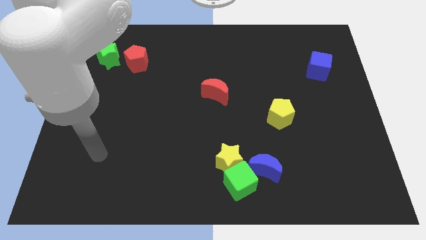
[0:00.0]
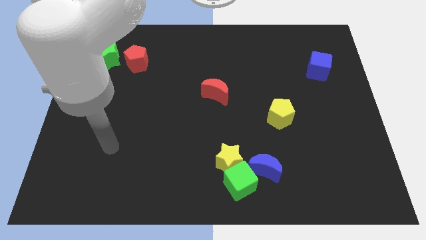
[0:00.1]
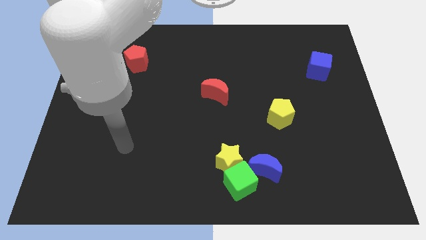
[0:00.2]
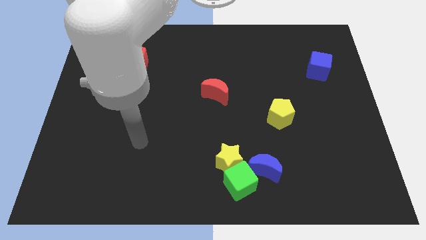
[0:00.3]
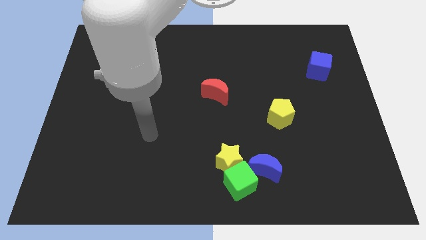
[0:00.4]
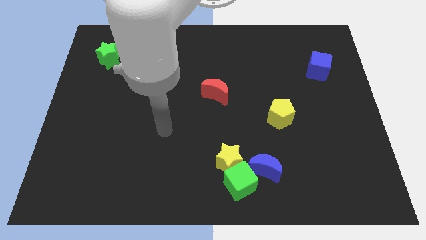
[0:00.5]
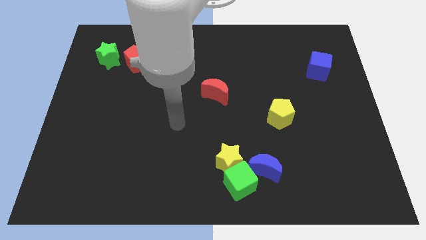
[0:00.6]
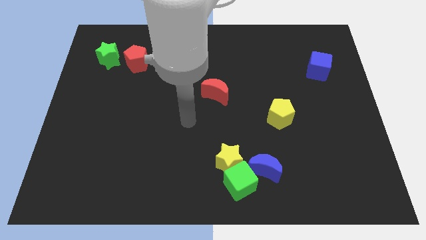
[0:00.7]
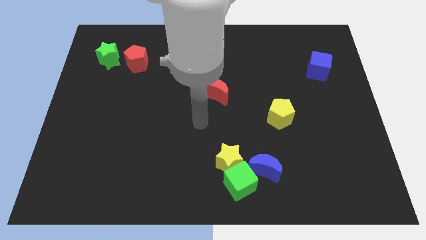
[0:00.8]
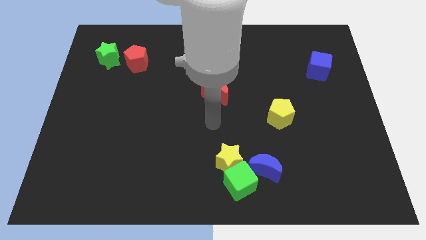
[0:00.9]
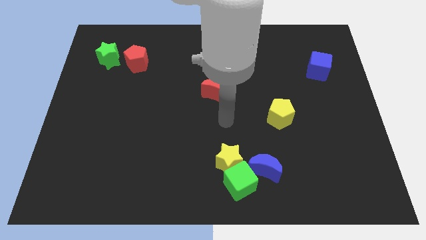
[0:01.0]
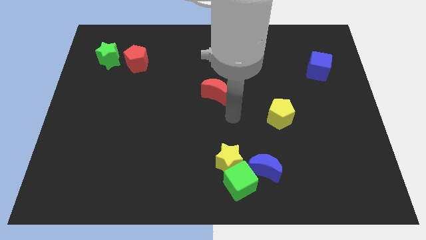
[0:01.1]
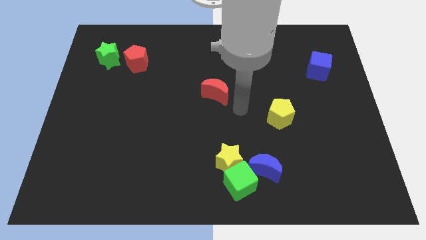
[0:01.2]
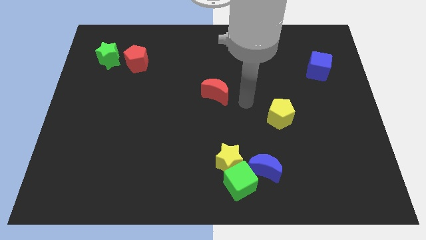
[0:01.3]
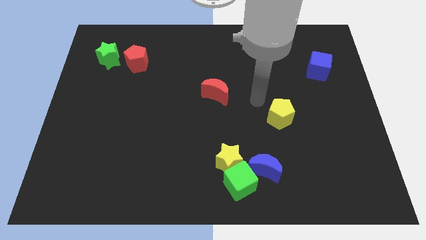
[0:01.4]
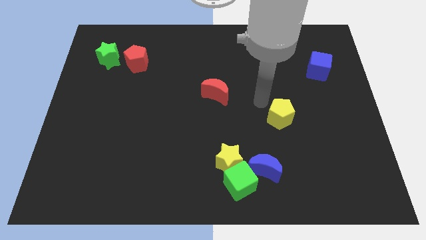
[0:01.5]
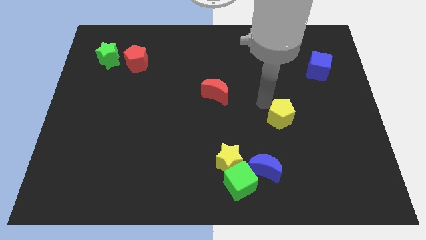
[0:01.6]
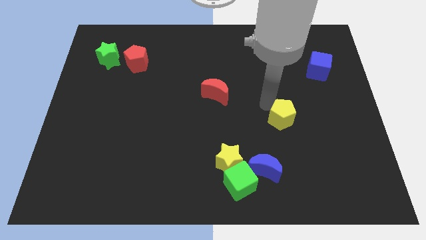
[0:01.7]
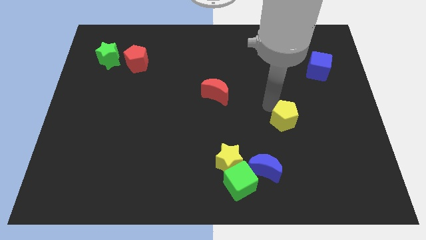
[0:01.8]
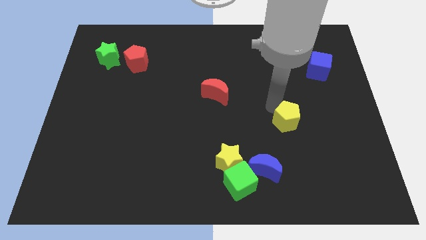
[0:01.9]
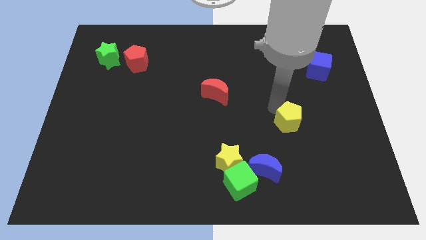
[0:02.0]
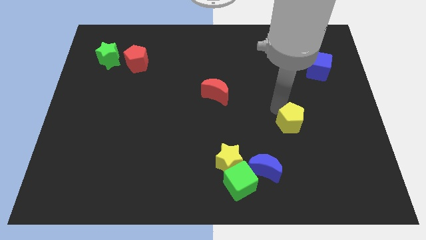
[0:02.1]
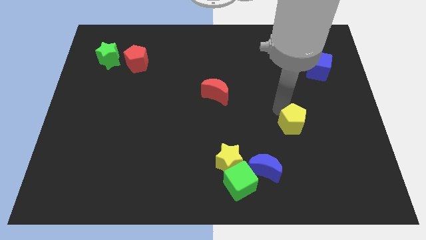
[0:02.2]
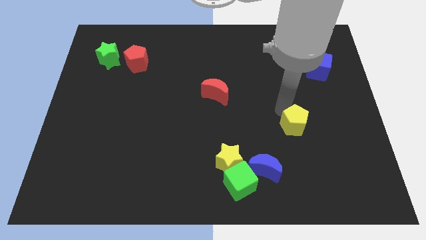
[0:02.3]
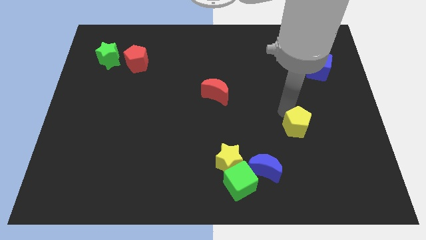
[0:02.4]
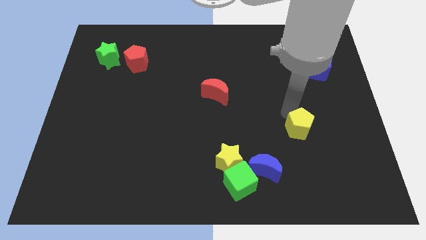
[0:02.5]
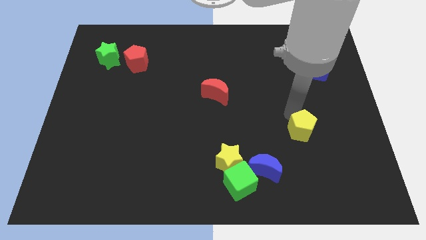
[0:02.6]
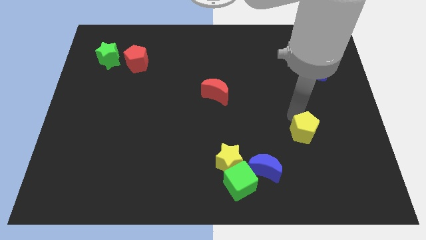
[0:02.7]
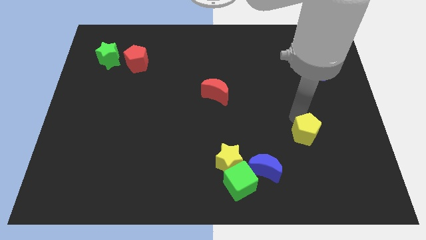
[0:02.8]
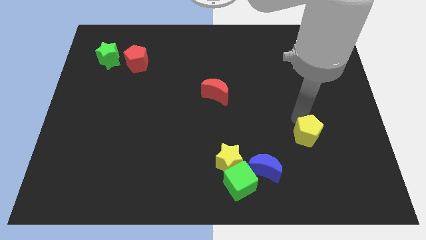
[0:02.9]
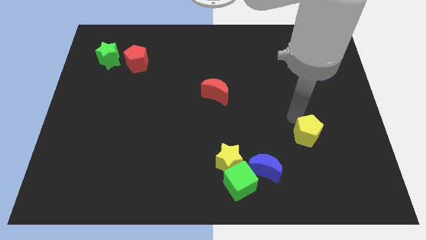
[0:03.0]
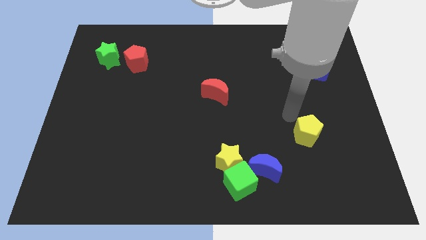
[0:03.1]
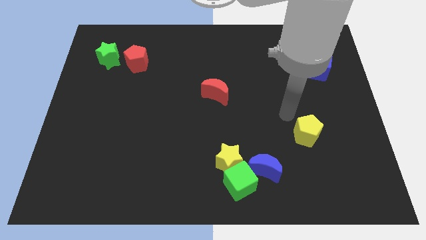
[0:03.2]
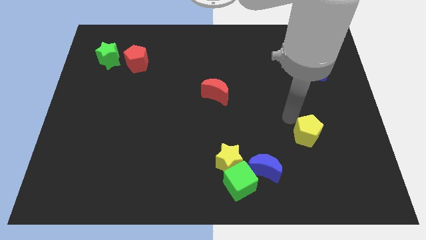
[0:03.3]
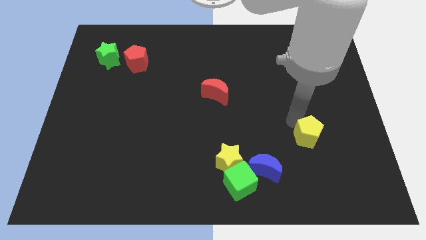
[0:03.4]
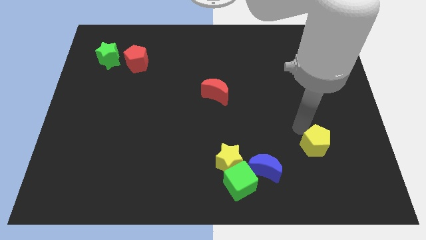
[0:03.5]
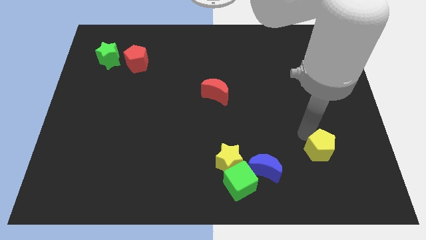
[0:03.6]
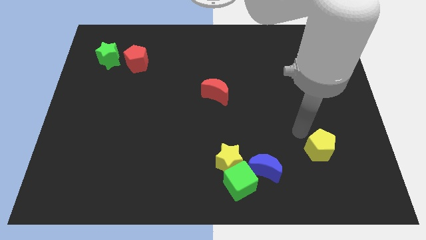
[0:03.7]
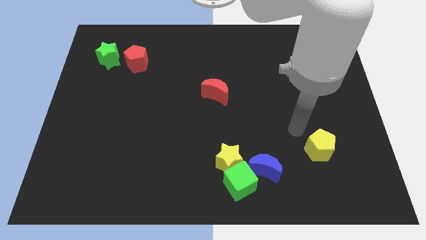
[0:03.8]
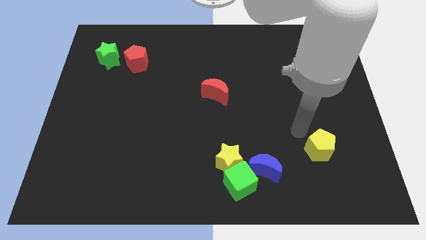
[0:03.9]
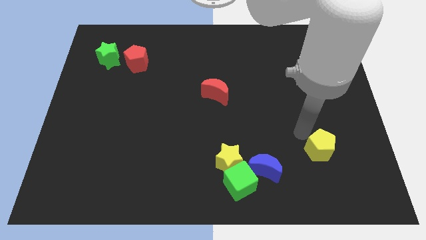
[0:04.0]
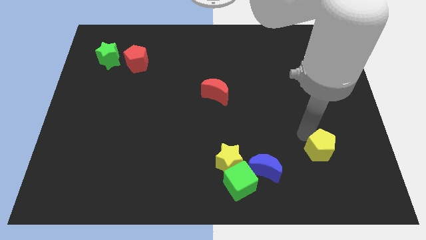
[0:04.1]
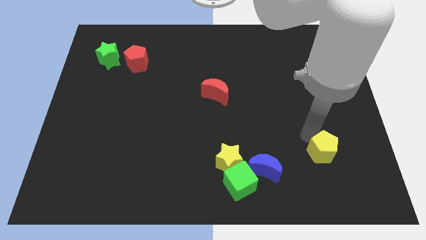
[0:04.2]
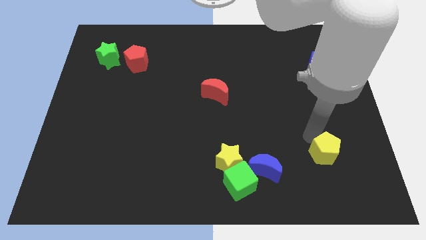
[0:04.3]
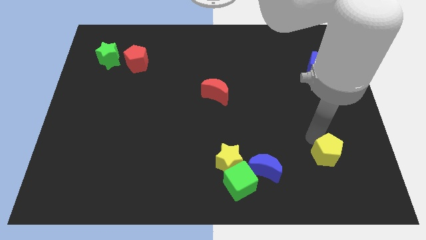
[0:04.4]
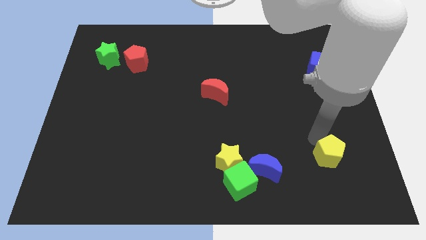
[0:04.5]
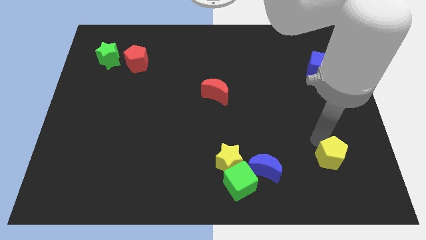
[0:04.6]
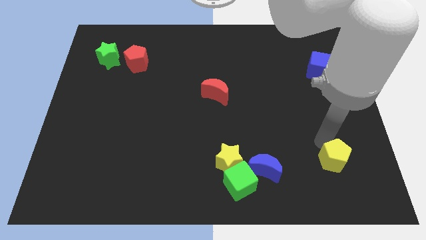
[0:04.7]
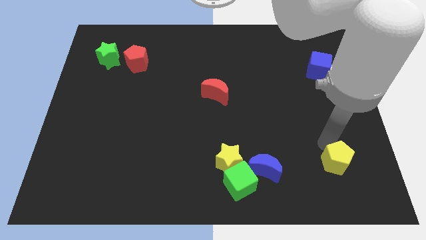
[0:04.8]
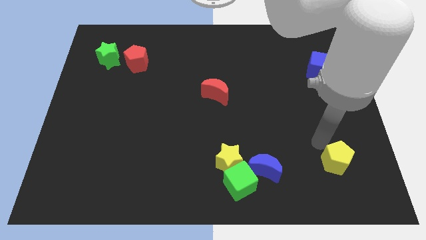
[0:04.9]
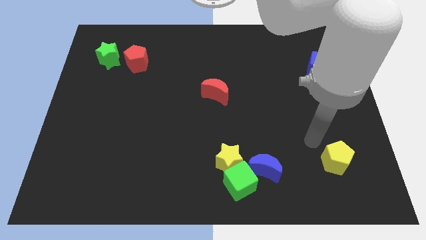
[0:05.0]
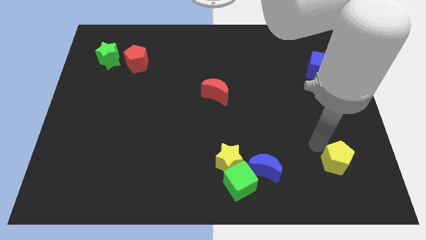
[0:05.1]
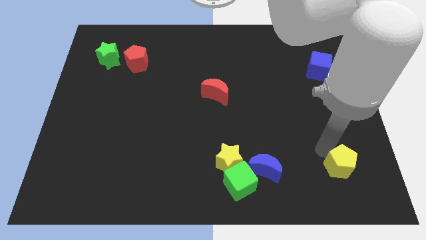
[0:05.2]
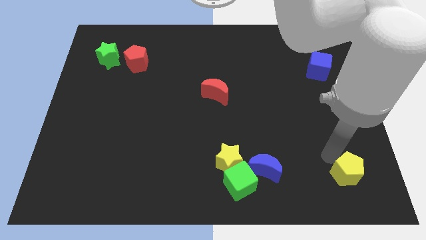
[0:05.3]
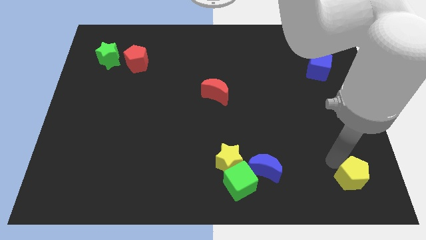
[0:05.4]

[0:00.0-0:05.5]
move the yellow pentagon to the bottom right

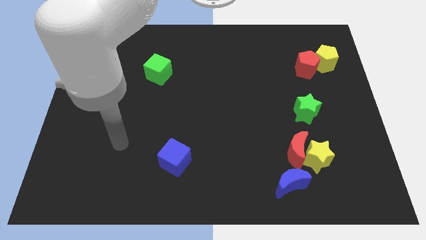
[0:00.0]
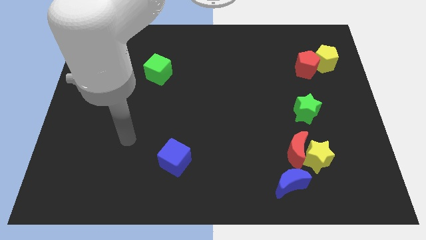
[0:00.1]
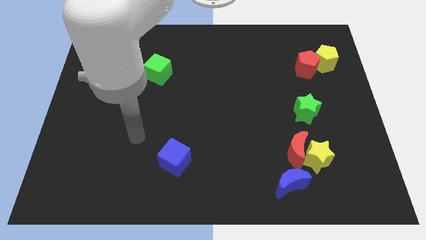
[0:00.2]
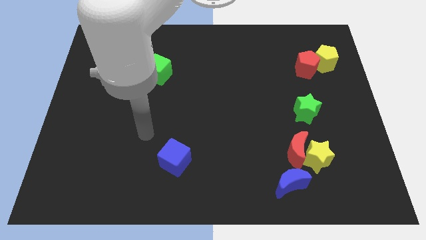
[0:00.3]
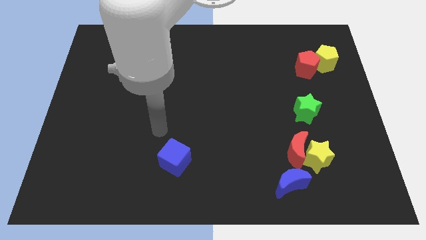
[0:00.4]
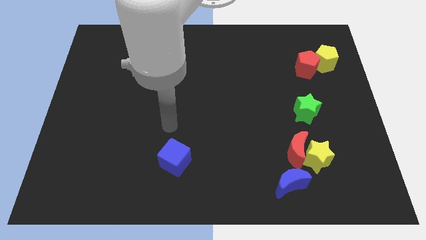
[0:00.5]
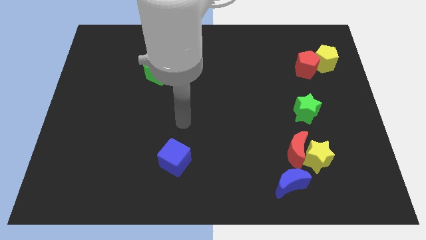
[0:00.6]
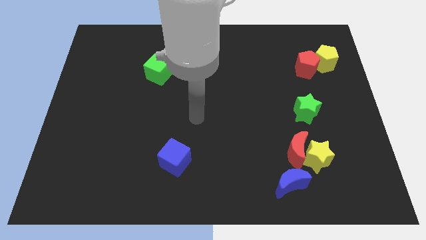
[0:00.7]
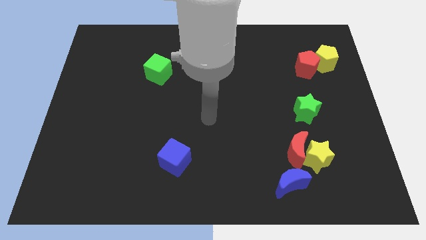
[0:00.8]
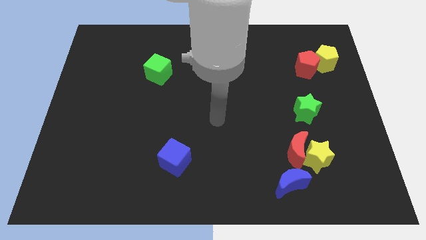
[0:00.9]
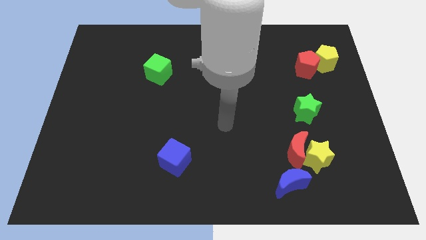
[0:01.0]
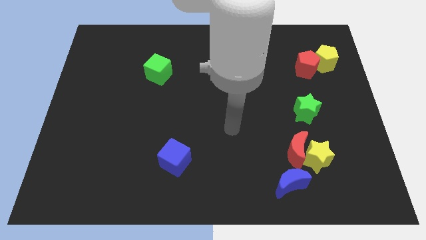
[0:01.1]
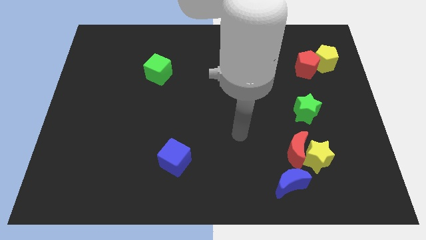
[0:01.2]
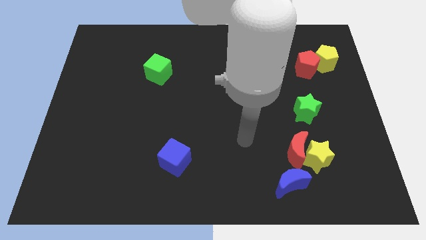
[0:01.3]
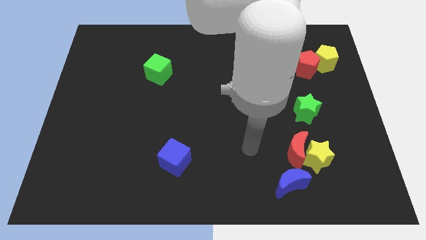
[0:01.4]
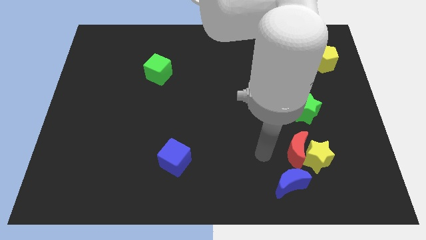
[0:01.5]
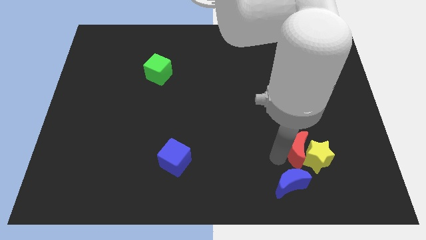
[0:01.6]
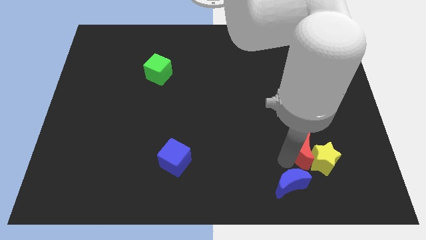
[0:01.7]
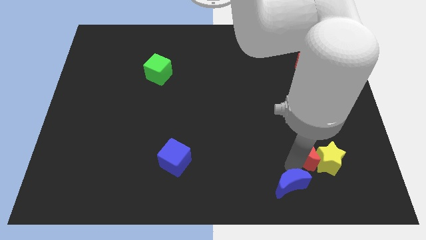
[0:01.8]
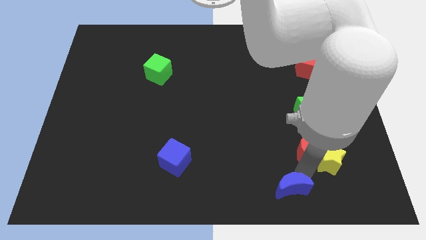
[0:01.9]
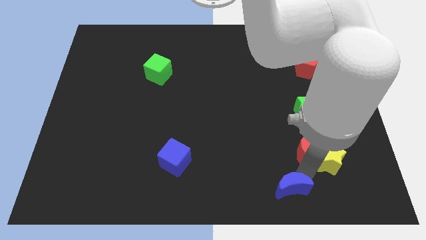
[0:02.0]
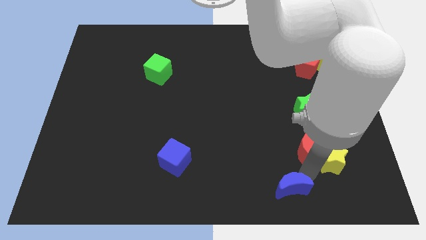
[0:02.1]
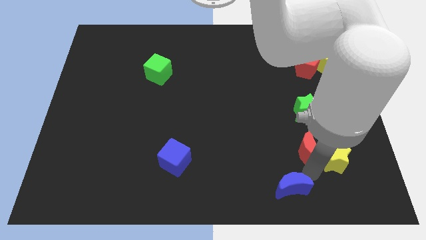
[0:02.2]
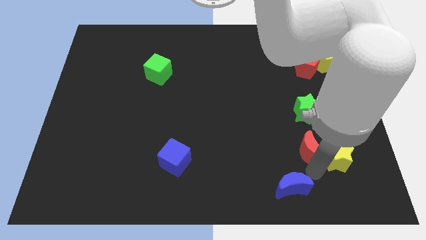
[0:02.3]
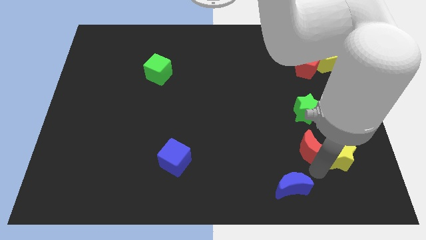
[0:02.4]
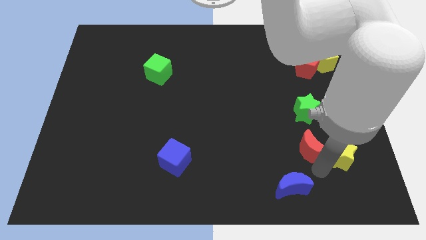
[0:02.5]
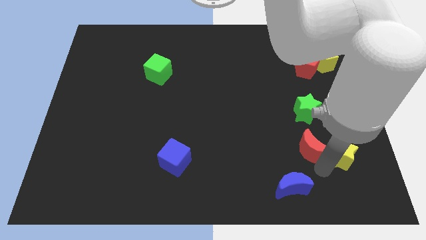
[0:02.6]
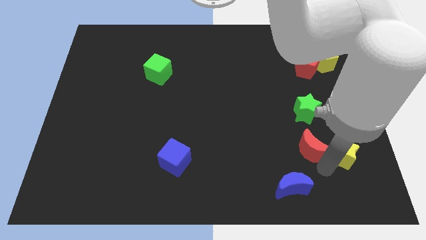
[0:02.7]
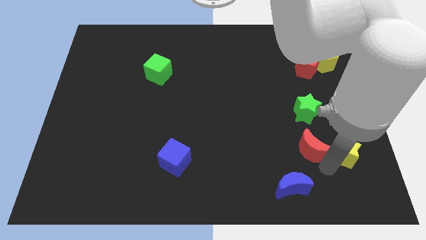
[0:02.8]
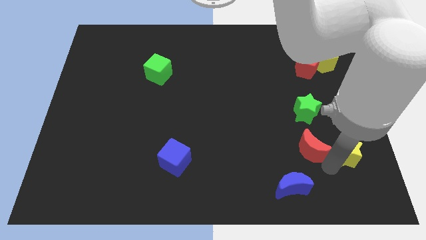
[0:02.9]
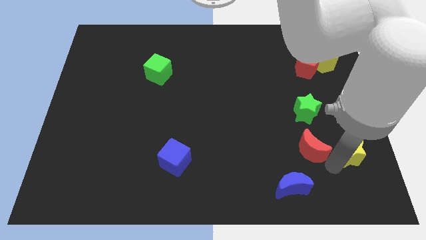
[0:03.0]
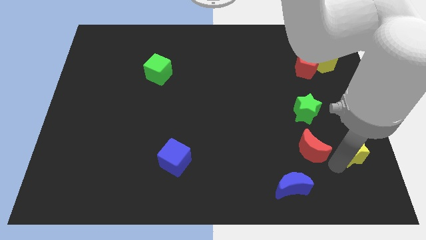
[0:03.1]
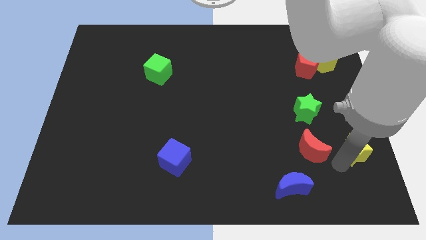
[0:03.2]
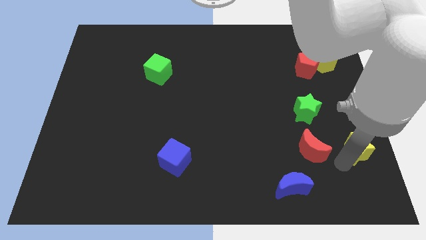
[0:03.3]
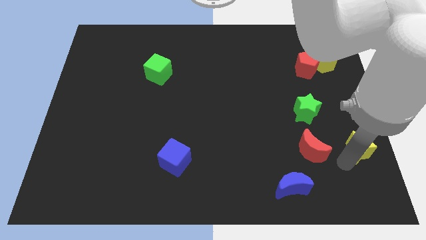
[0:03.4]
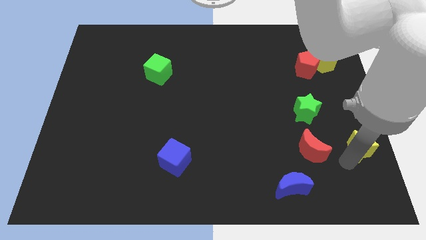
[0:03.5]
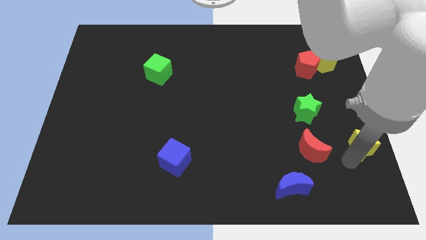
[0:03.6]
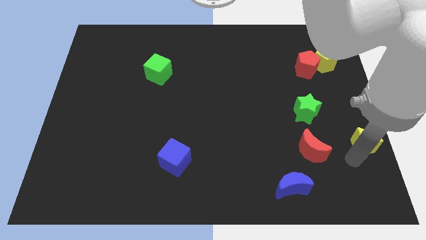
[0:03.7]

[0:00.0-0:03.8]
put the yellow star to the center right
